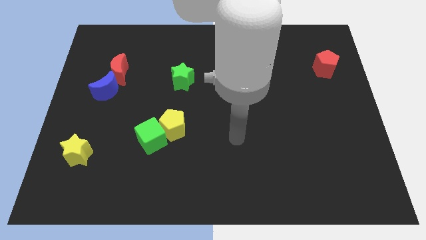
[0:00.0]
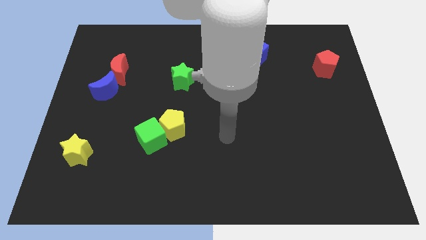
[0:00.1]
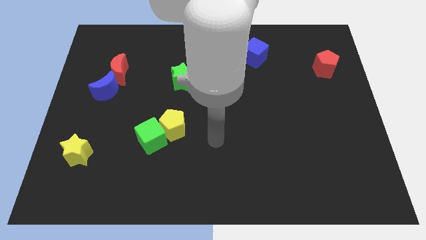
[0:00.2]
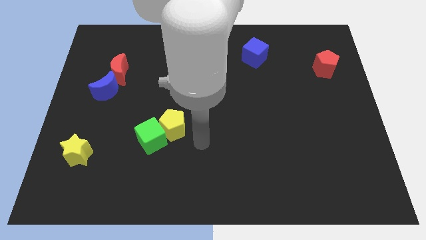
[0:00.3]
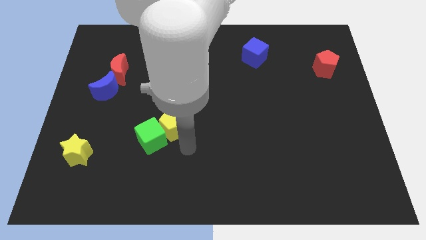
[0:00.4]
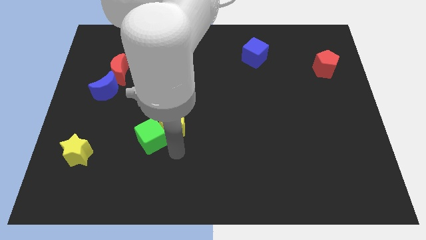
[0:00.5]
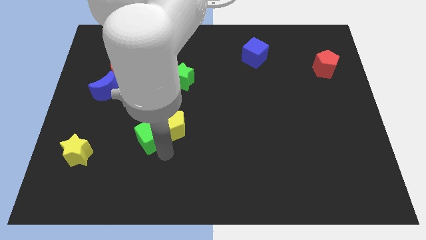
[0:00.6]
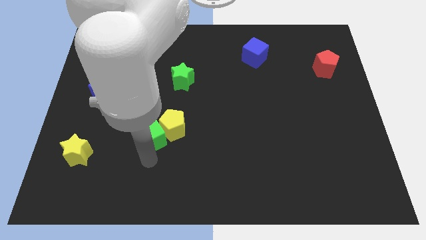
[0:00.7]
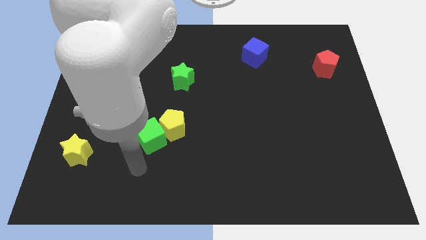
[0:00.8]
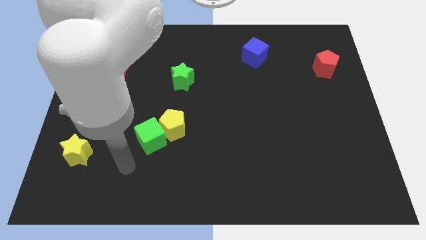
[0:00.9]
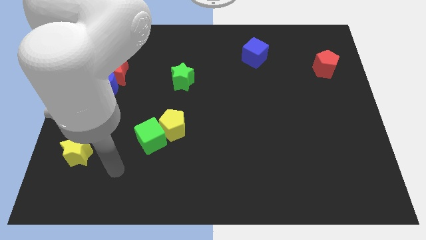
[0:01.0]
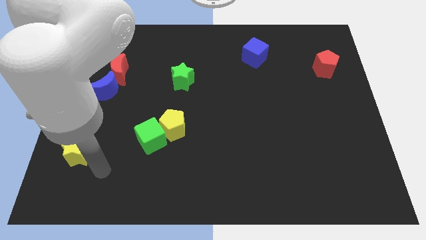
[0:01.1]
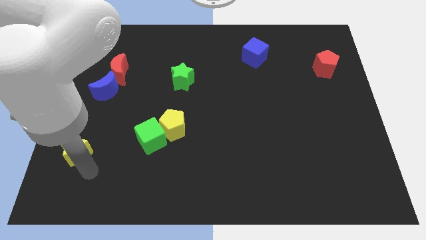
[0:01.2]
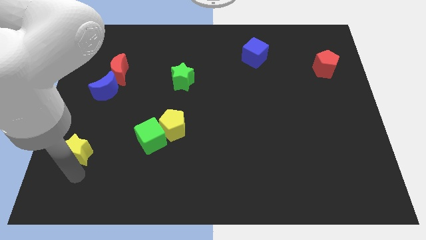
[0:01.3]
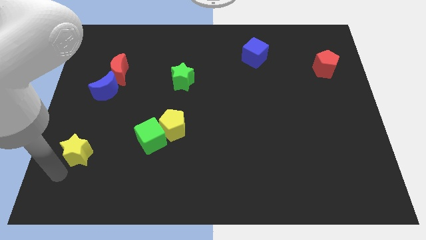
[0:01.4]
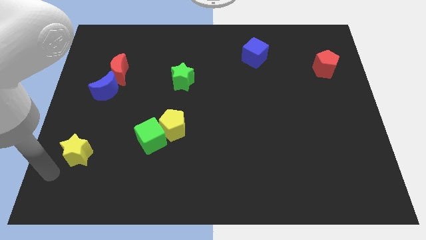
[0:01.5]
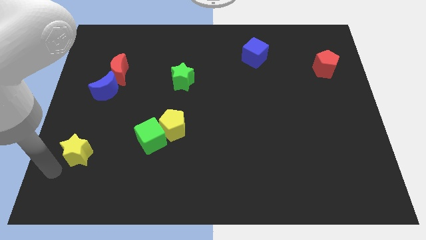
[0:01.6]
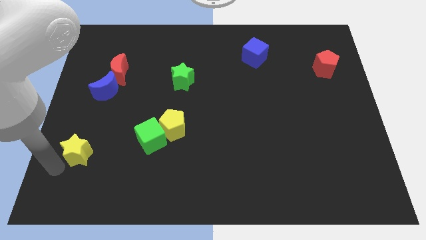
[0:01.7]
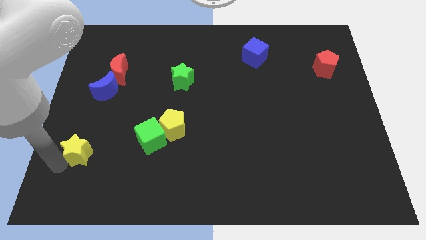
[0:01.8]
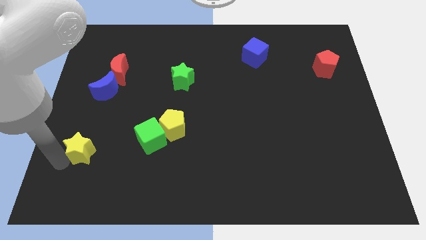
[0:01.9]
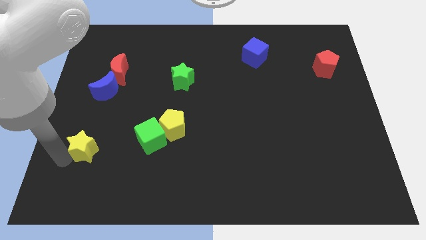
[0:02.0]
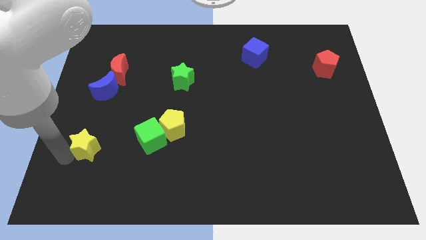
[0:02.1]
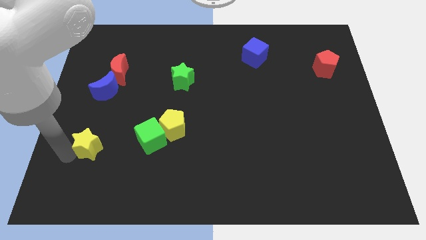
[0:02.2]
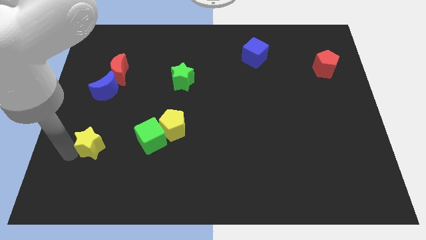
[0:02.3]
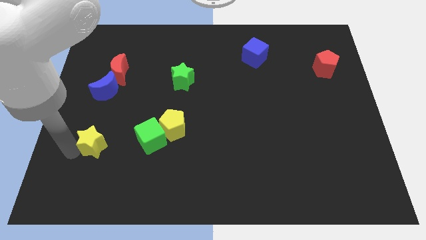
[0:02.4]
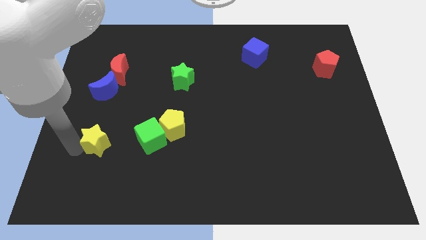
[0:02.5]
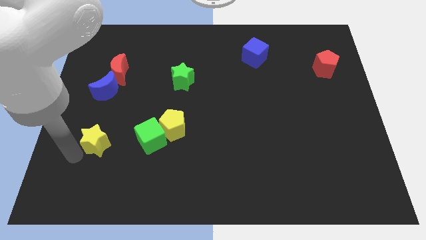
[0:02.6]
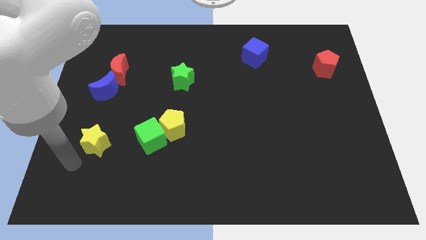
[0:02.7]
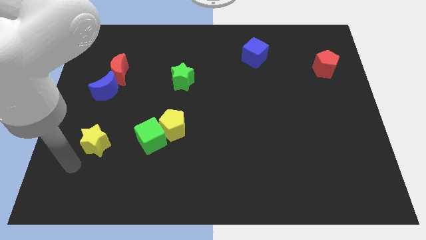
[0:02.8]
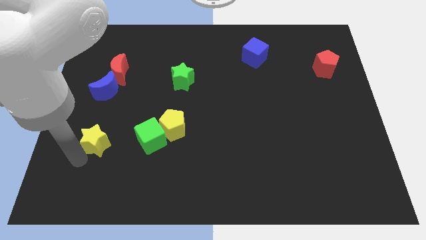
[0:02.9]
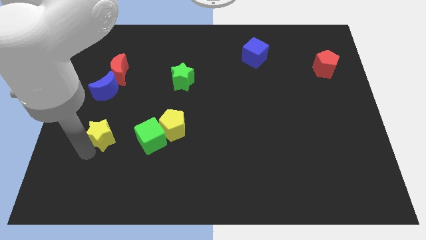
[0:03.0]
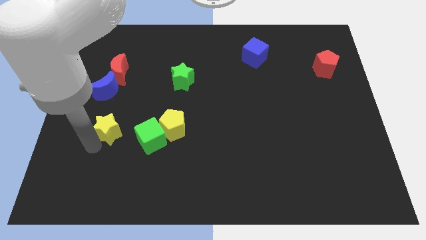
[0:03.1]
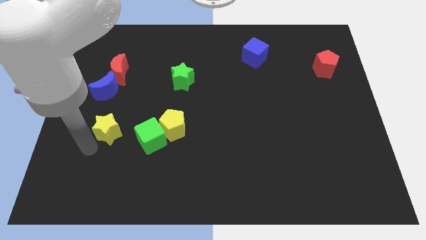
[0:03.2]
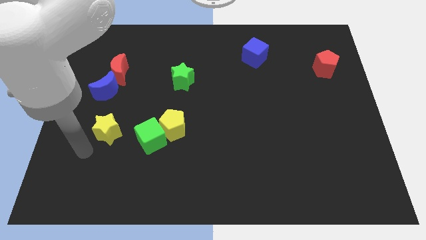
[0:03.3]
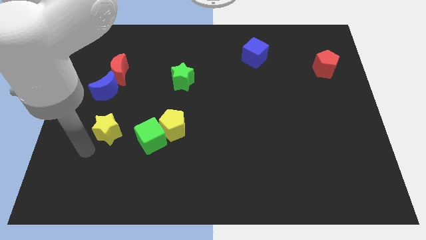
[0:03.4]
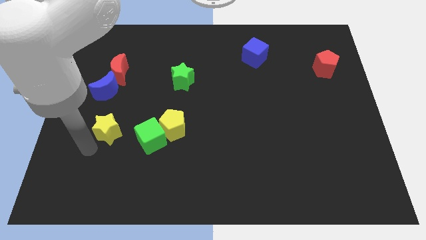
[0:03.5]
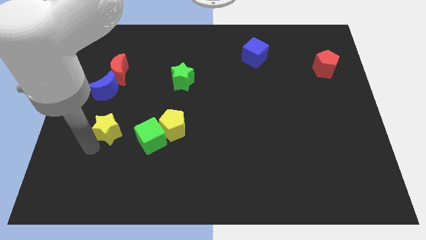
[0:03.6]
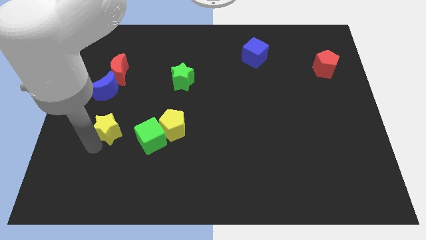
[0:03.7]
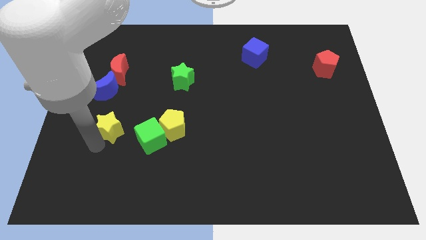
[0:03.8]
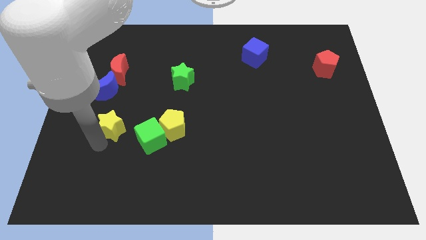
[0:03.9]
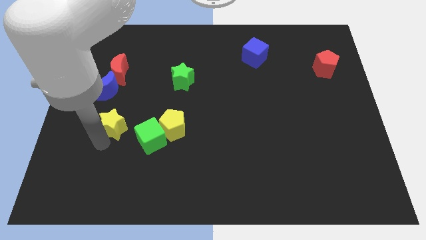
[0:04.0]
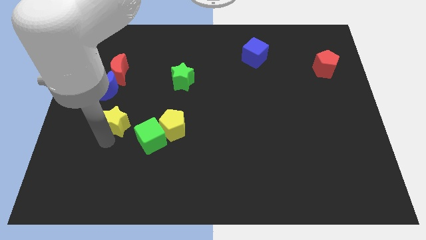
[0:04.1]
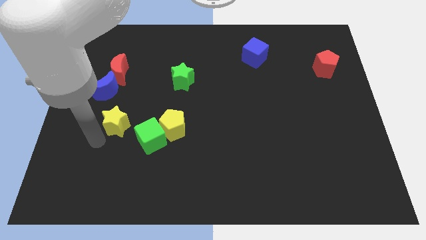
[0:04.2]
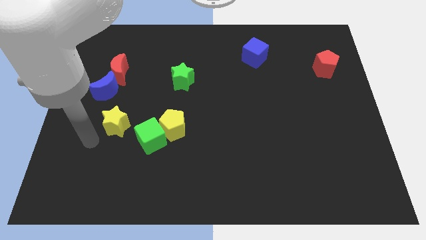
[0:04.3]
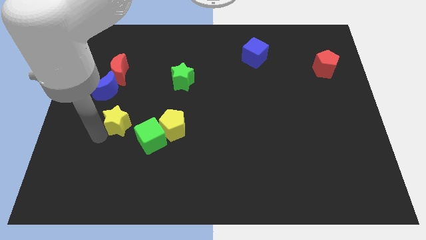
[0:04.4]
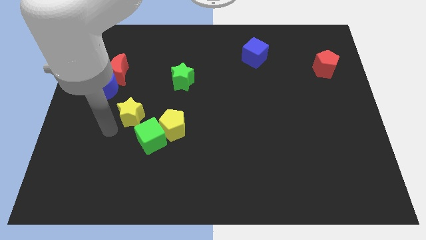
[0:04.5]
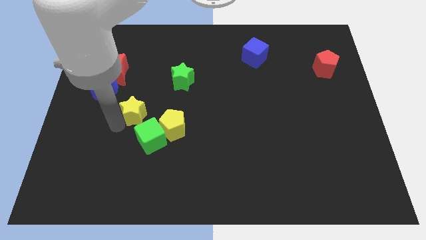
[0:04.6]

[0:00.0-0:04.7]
move the yellow star to the top side of the green cube

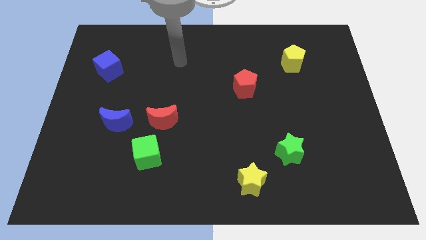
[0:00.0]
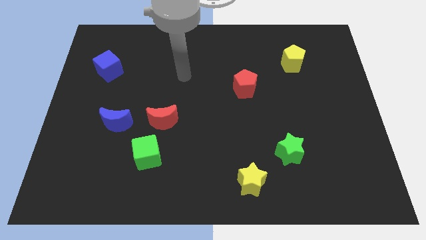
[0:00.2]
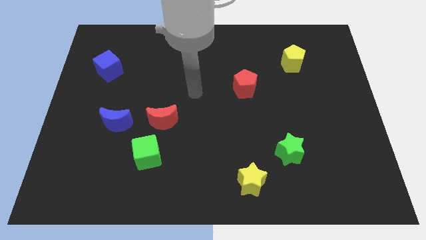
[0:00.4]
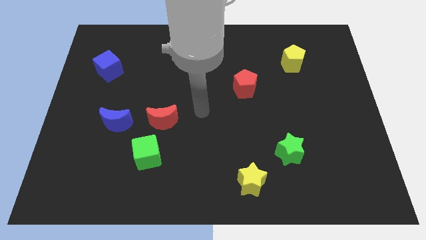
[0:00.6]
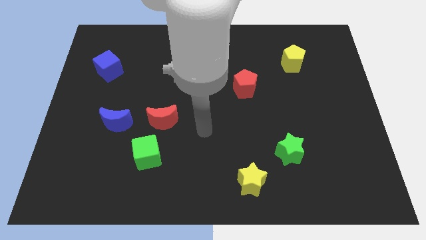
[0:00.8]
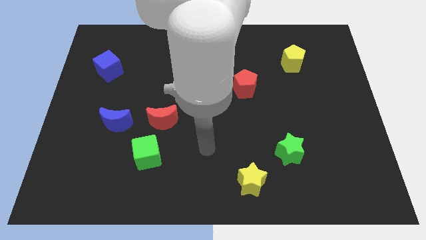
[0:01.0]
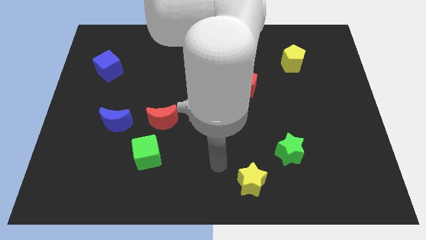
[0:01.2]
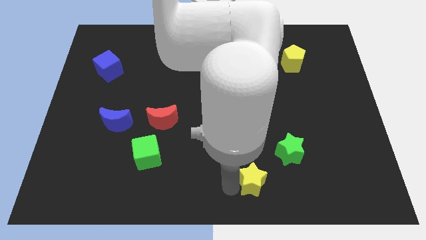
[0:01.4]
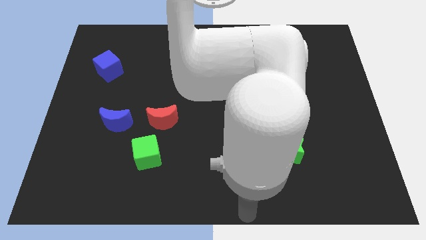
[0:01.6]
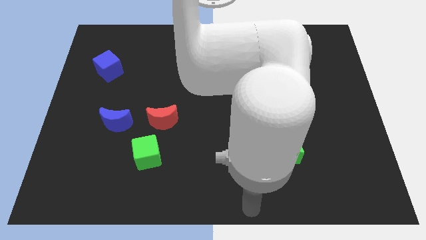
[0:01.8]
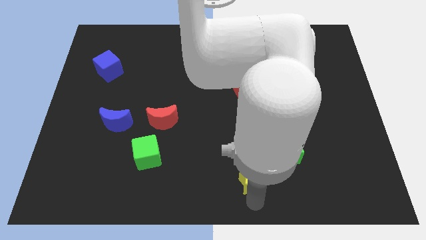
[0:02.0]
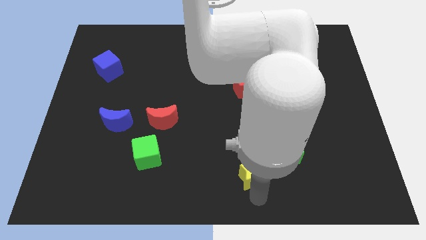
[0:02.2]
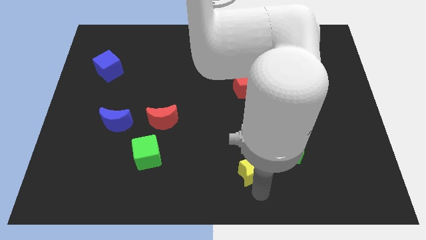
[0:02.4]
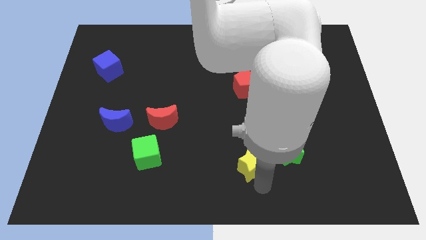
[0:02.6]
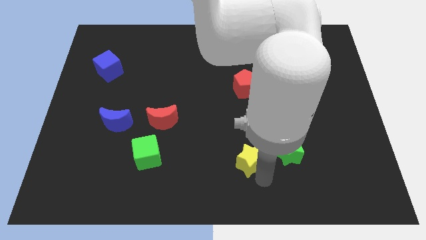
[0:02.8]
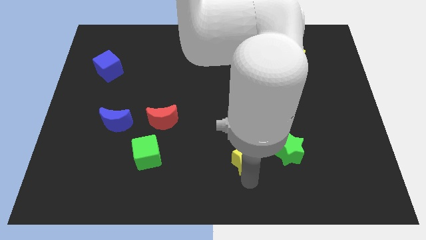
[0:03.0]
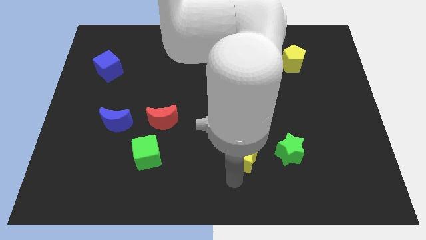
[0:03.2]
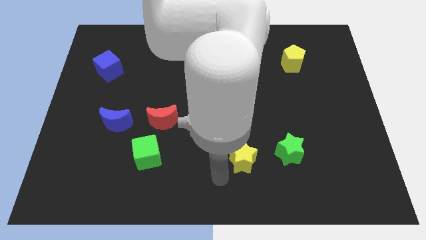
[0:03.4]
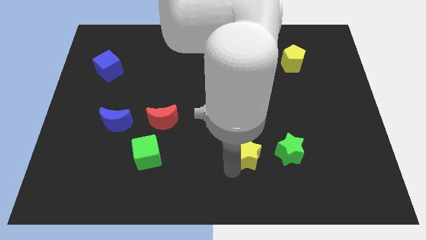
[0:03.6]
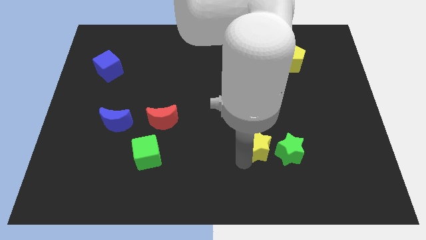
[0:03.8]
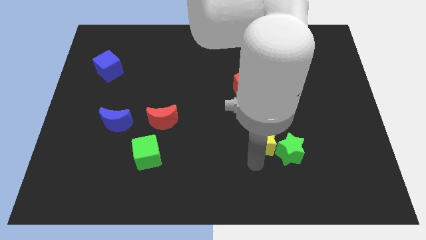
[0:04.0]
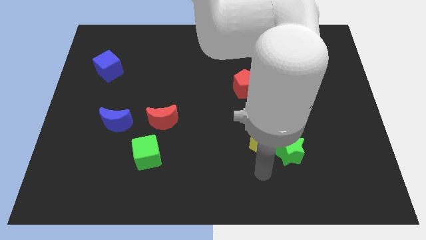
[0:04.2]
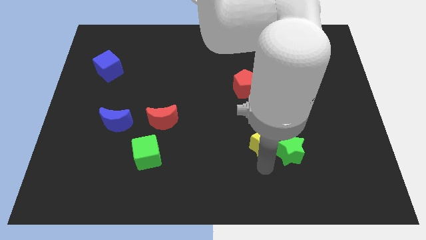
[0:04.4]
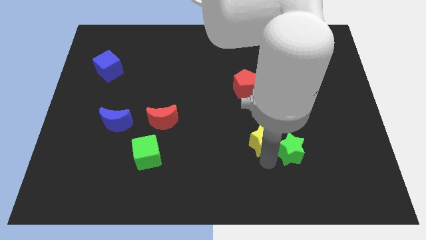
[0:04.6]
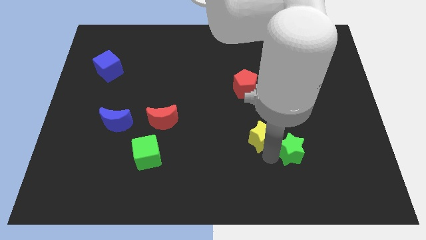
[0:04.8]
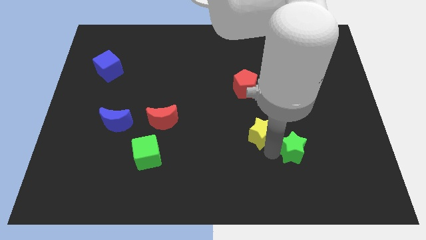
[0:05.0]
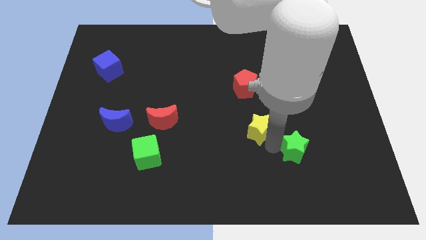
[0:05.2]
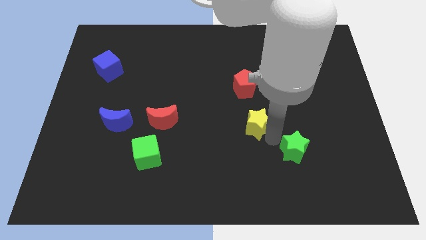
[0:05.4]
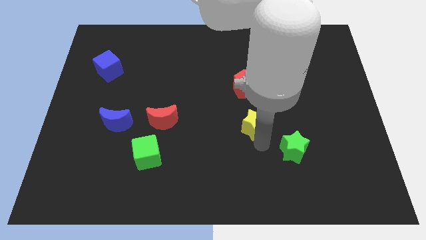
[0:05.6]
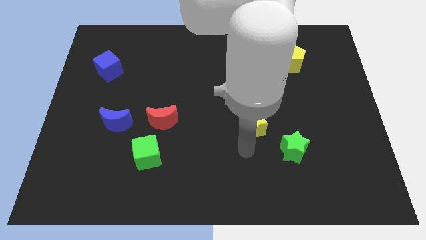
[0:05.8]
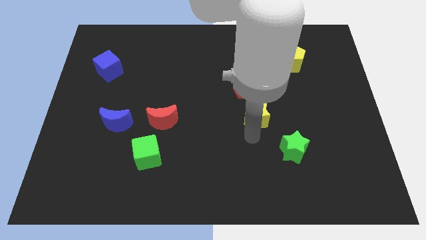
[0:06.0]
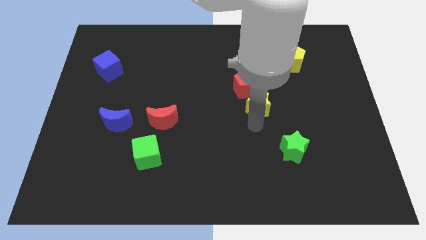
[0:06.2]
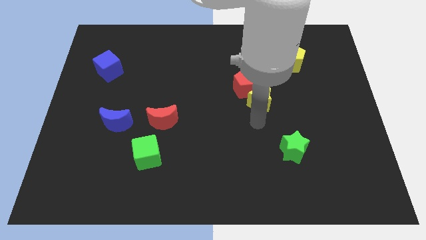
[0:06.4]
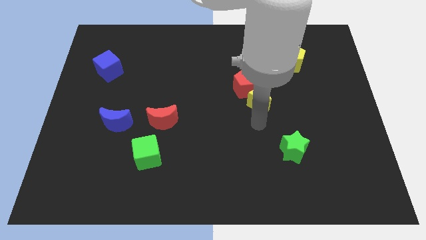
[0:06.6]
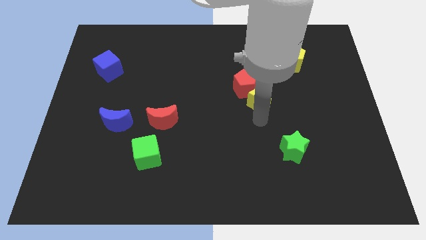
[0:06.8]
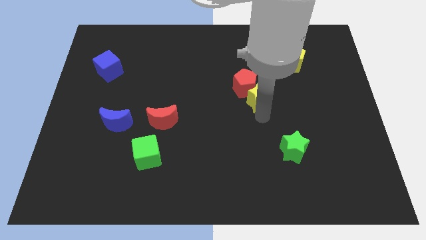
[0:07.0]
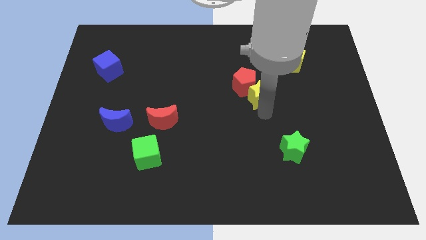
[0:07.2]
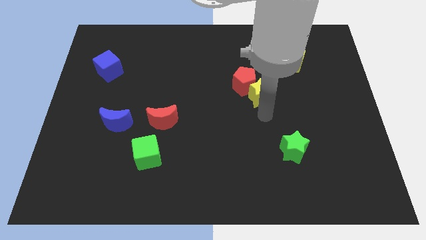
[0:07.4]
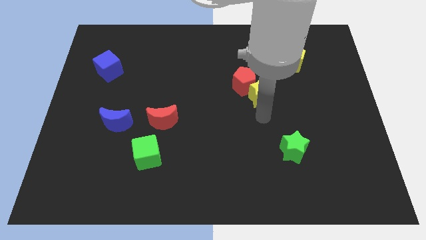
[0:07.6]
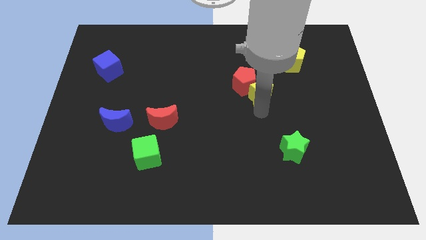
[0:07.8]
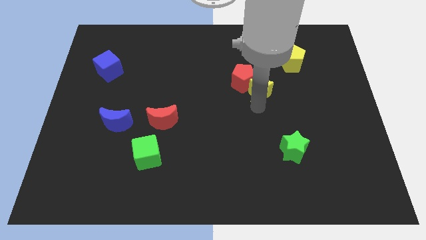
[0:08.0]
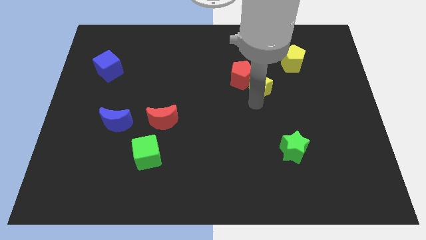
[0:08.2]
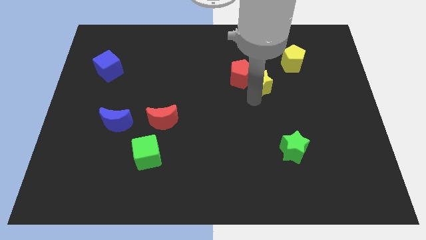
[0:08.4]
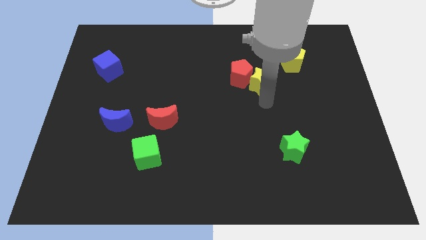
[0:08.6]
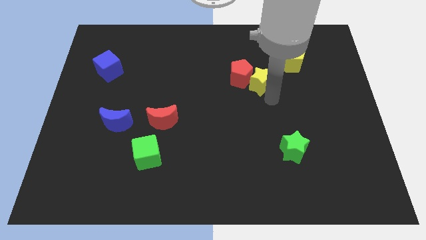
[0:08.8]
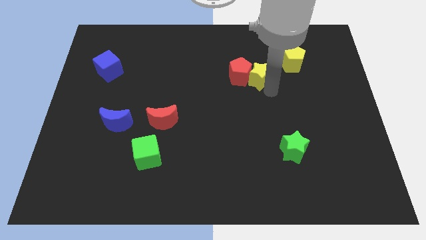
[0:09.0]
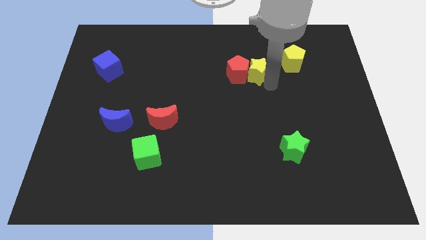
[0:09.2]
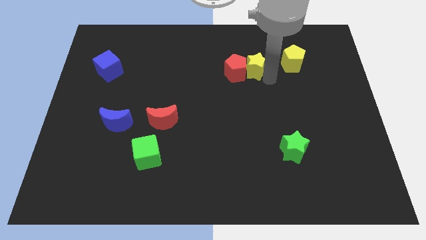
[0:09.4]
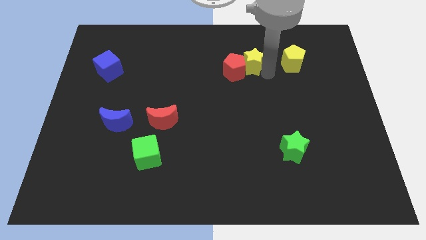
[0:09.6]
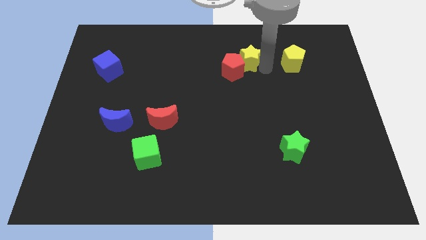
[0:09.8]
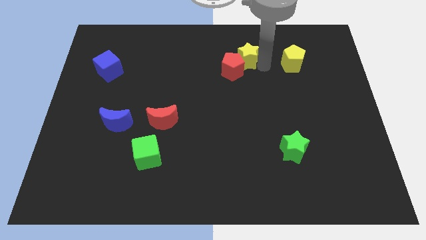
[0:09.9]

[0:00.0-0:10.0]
slide the yellow star to the top side of the red pentagon
